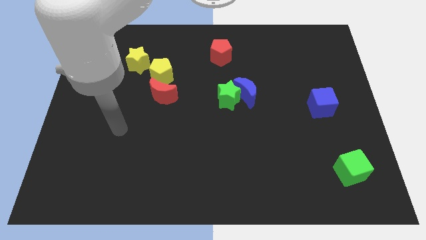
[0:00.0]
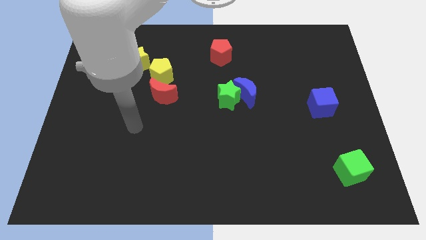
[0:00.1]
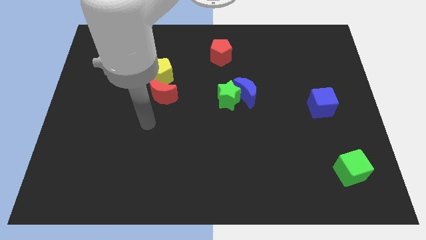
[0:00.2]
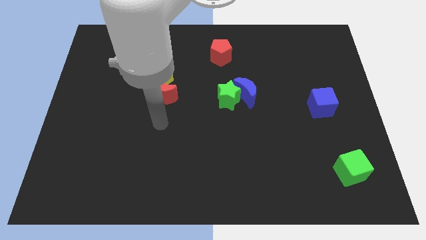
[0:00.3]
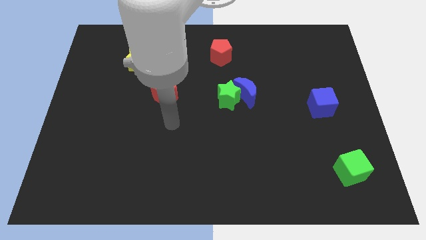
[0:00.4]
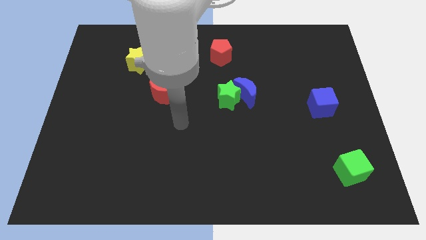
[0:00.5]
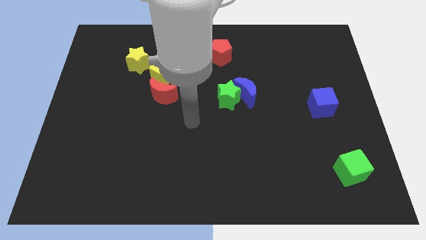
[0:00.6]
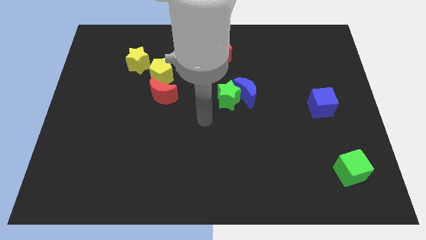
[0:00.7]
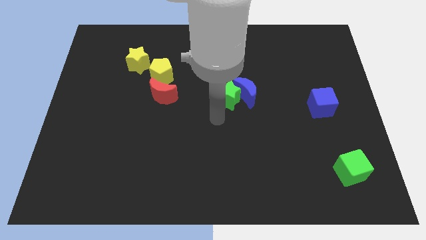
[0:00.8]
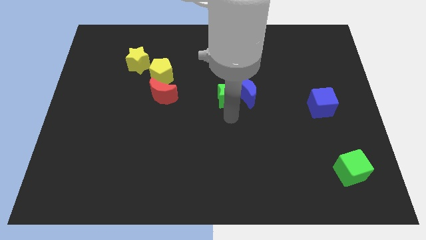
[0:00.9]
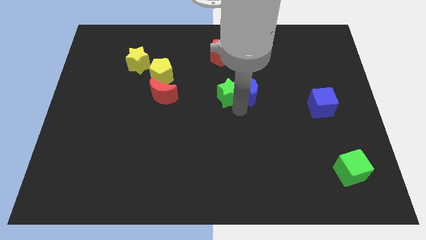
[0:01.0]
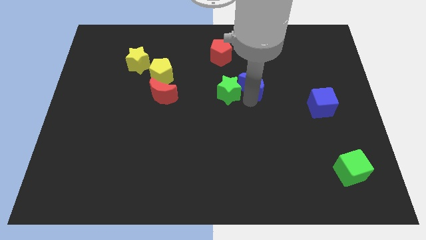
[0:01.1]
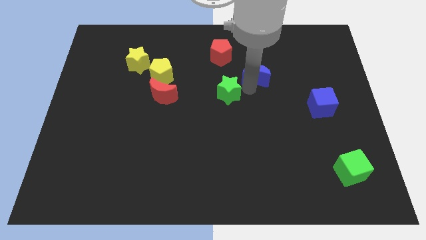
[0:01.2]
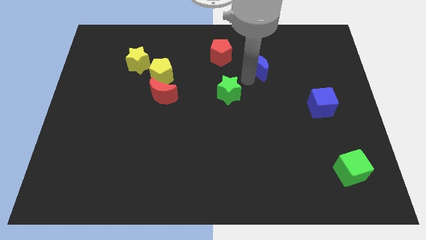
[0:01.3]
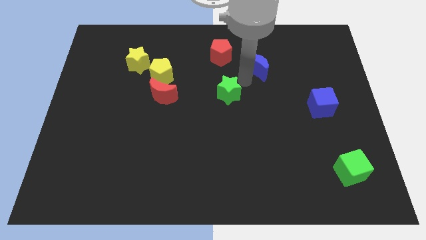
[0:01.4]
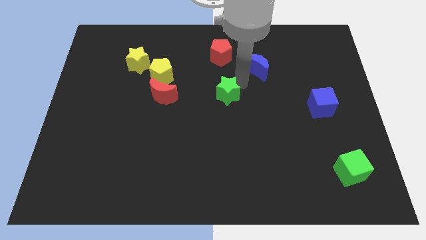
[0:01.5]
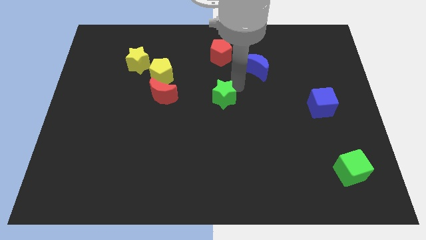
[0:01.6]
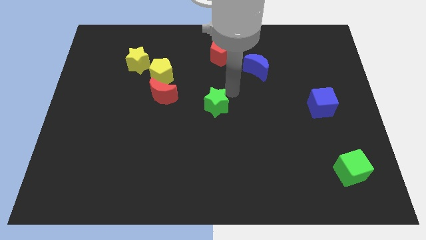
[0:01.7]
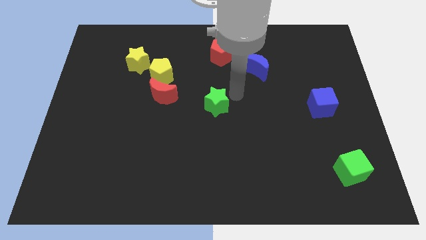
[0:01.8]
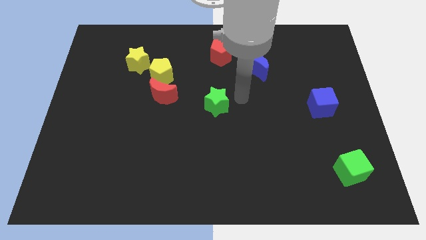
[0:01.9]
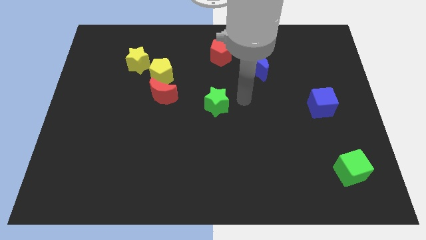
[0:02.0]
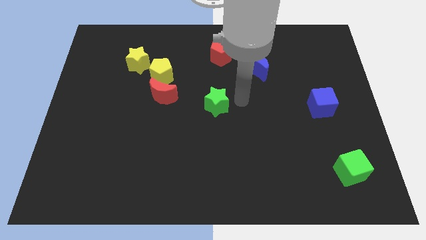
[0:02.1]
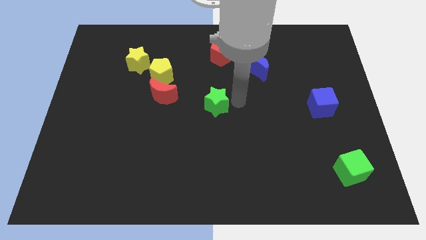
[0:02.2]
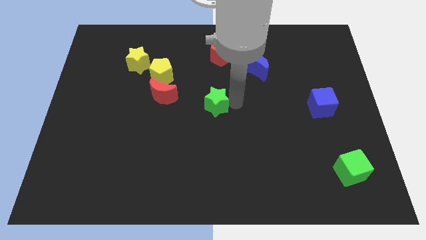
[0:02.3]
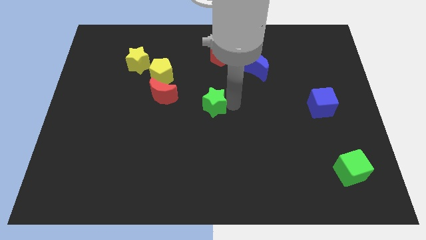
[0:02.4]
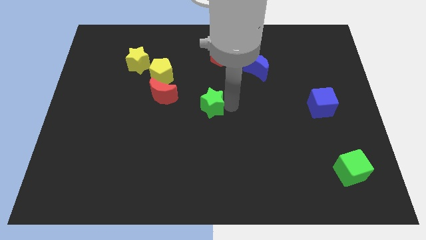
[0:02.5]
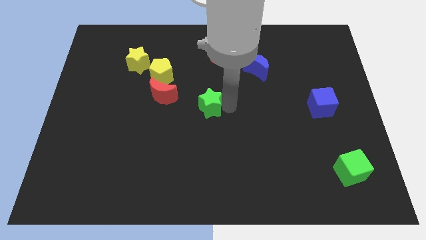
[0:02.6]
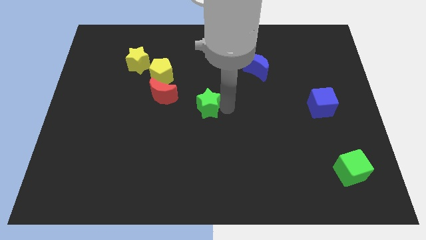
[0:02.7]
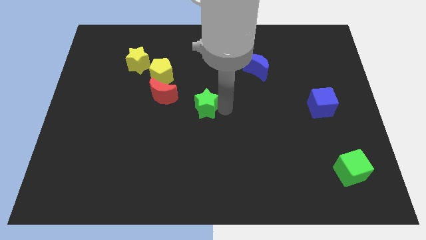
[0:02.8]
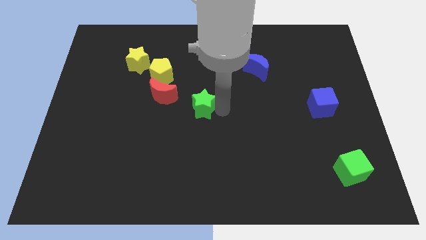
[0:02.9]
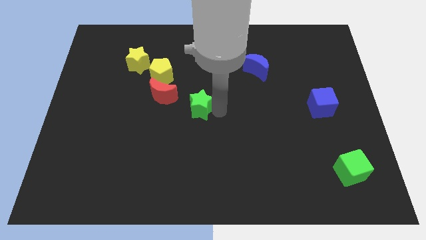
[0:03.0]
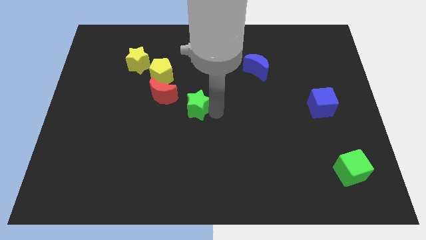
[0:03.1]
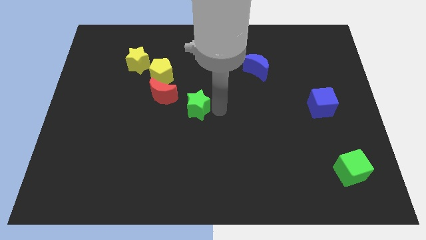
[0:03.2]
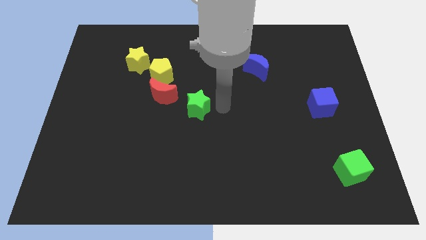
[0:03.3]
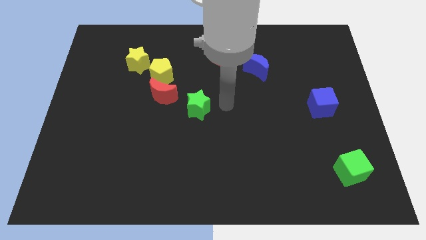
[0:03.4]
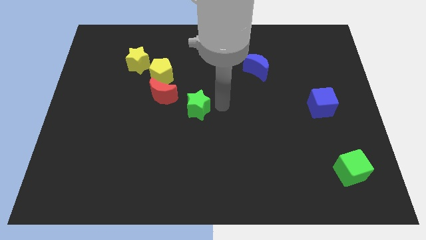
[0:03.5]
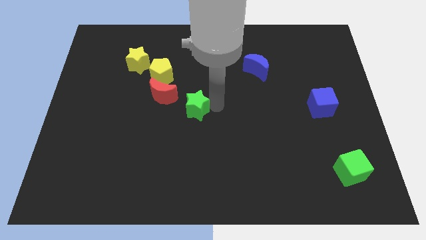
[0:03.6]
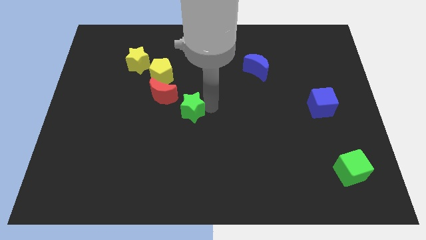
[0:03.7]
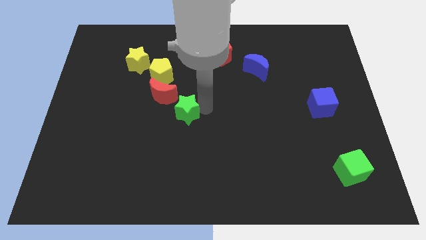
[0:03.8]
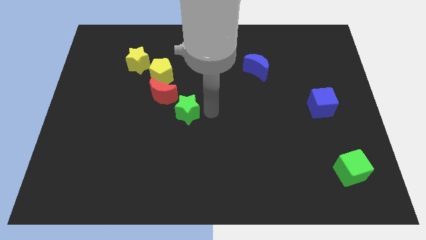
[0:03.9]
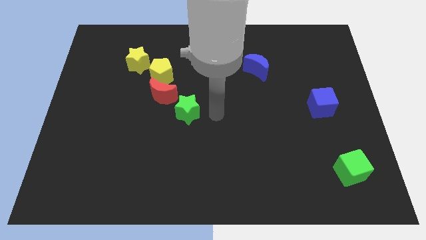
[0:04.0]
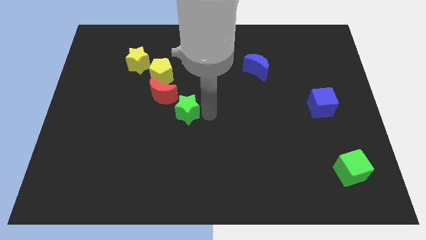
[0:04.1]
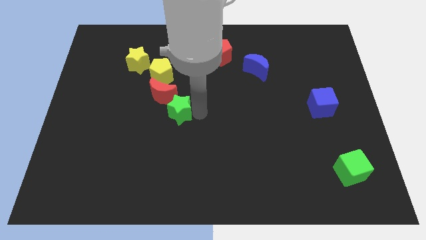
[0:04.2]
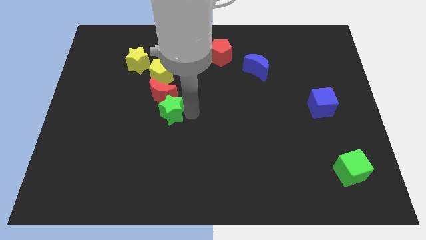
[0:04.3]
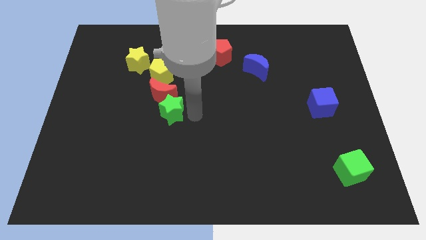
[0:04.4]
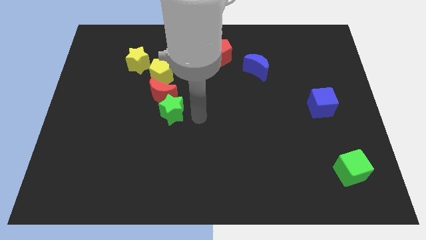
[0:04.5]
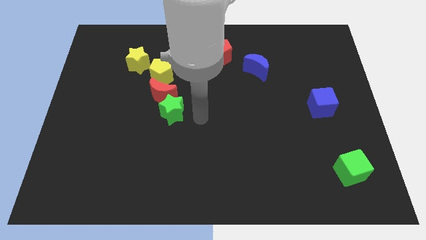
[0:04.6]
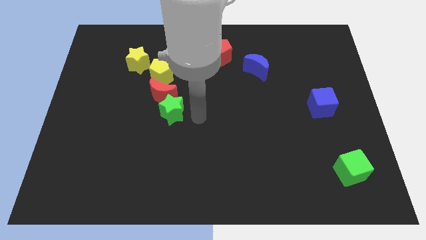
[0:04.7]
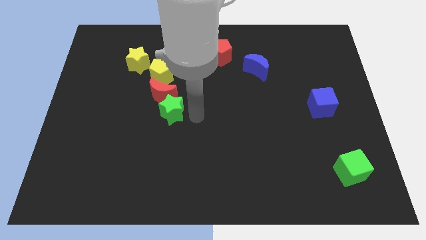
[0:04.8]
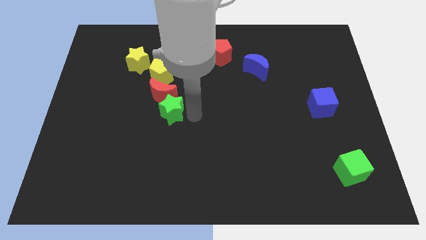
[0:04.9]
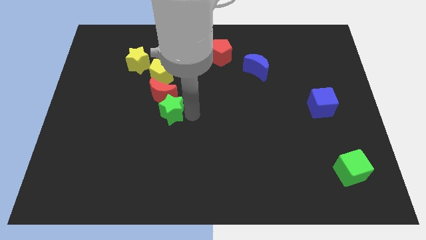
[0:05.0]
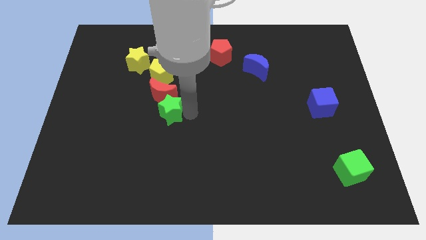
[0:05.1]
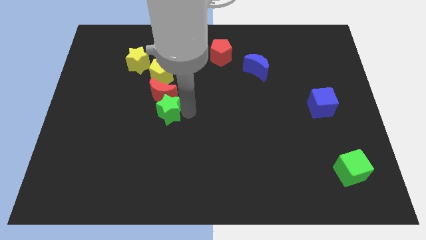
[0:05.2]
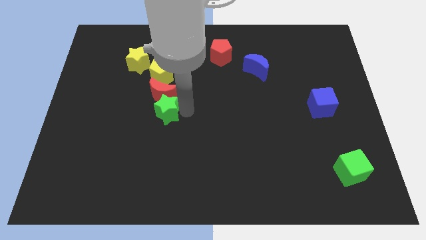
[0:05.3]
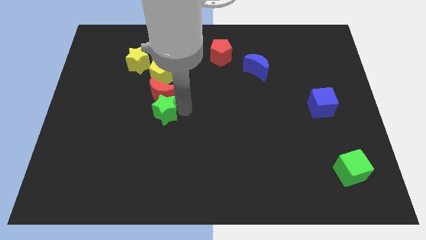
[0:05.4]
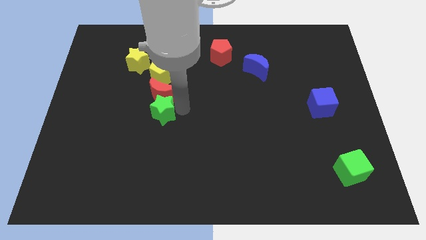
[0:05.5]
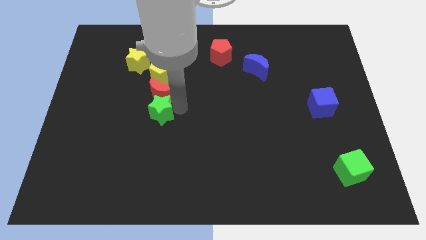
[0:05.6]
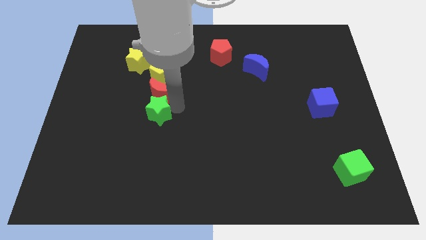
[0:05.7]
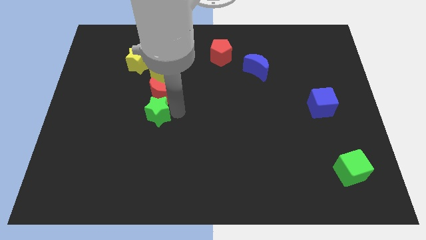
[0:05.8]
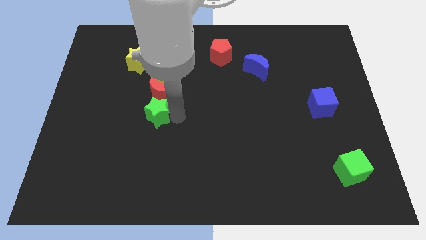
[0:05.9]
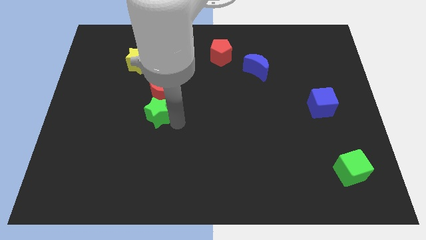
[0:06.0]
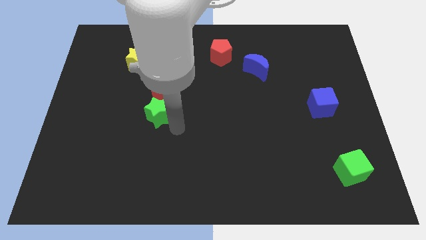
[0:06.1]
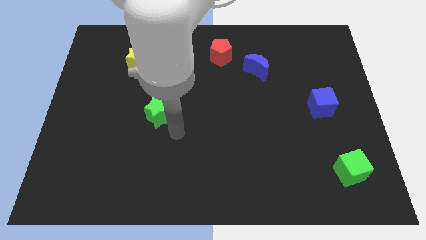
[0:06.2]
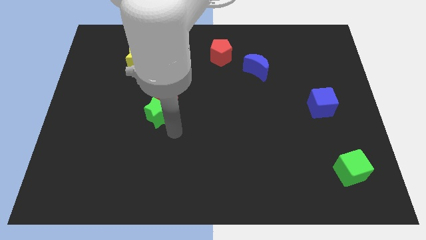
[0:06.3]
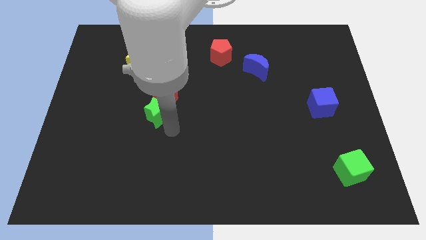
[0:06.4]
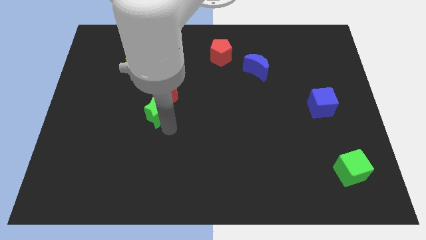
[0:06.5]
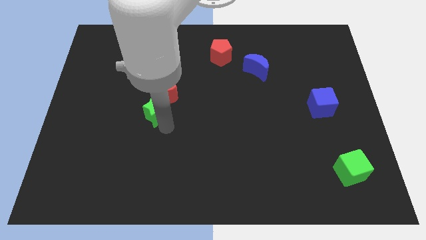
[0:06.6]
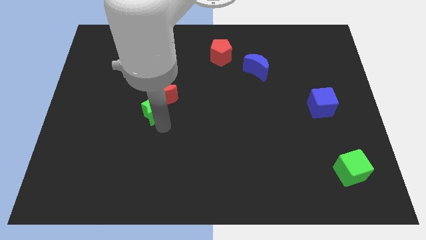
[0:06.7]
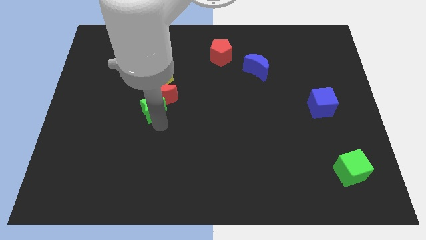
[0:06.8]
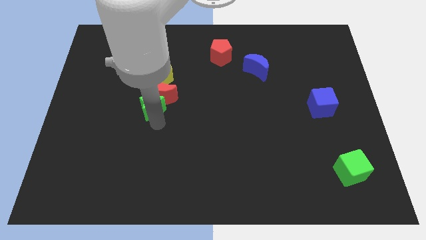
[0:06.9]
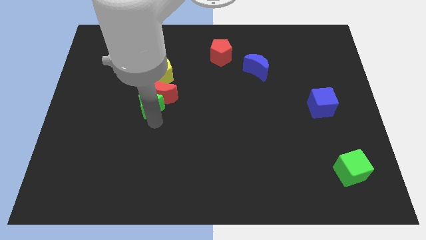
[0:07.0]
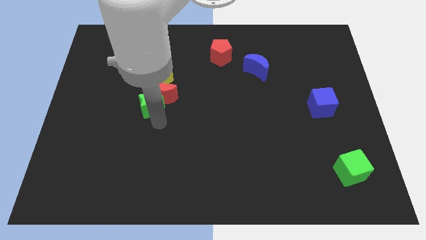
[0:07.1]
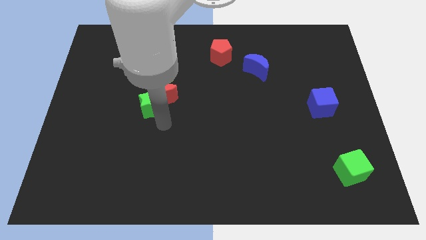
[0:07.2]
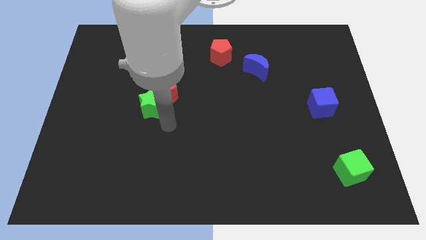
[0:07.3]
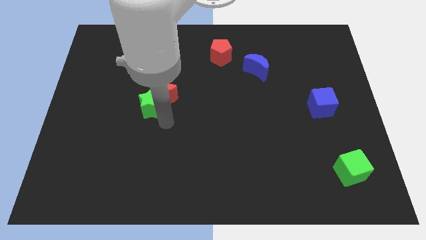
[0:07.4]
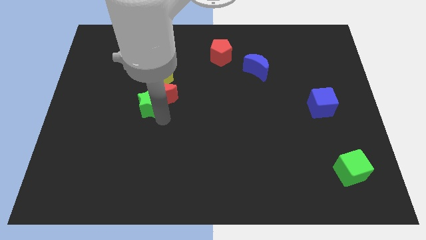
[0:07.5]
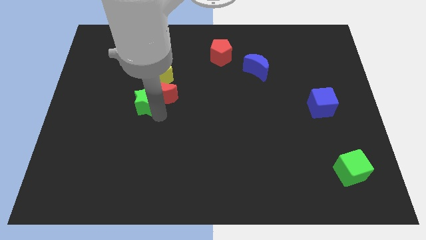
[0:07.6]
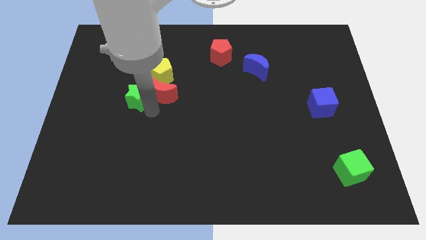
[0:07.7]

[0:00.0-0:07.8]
push the green star to the top left side of the red moon
